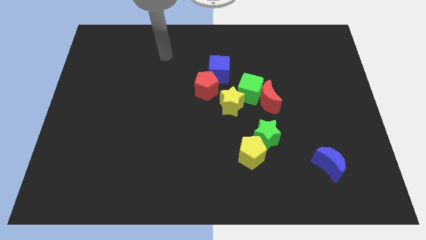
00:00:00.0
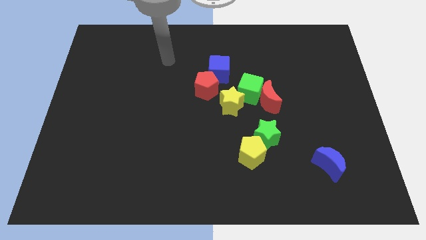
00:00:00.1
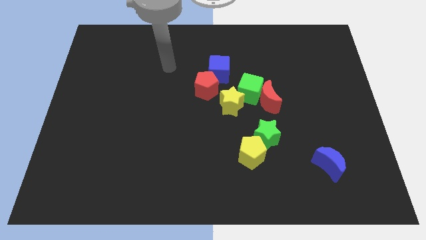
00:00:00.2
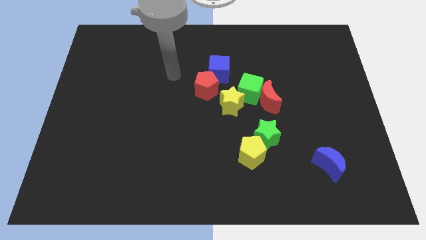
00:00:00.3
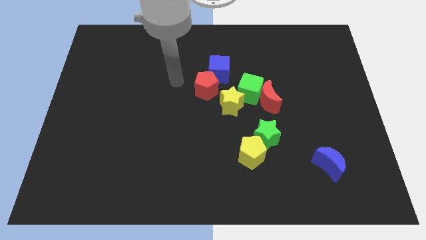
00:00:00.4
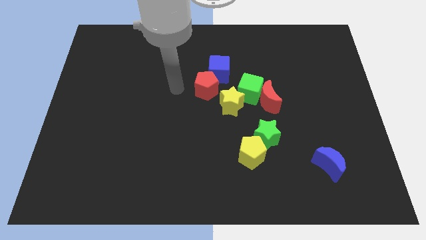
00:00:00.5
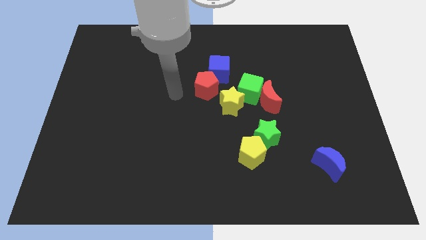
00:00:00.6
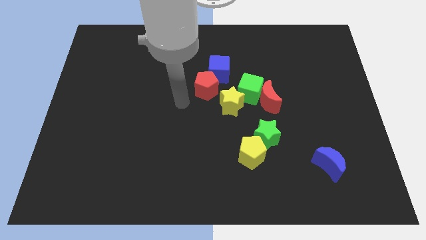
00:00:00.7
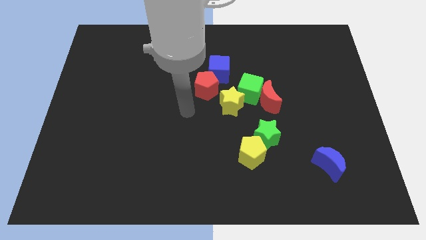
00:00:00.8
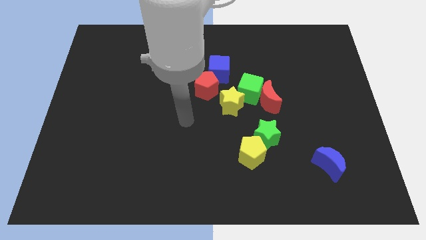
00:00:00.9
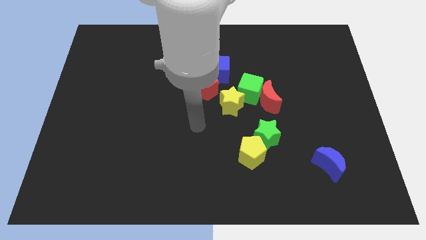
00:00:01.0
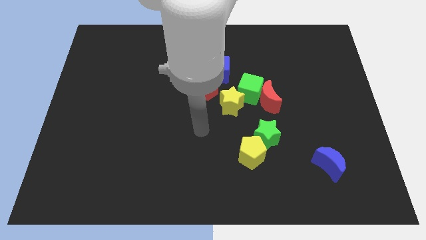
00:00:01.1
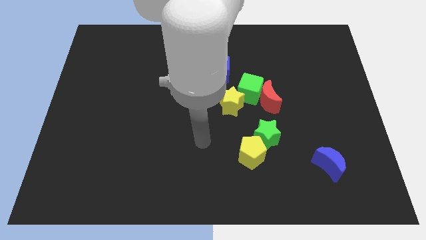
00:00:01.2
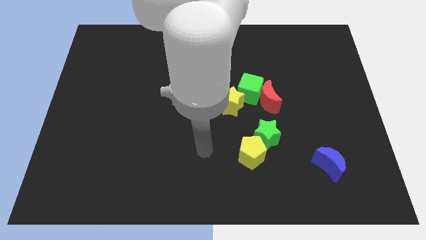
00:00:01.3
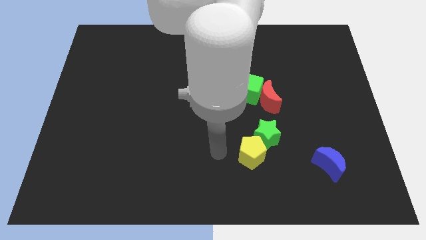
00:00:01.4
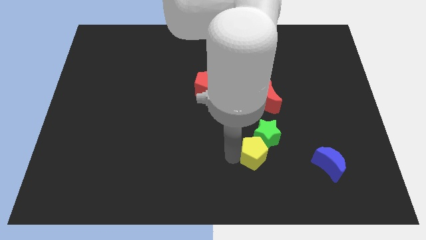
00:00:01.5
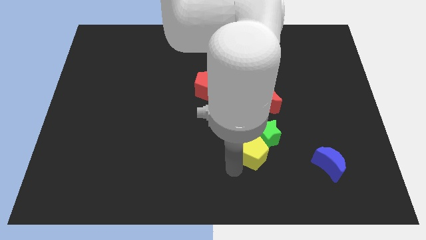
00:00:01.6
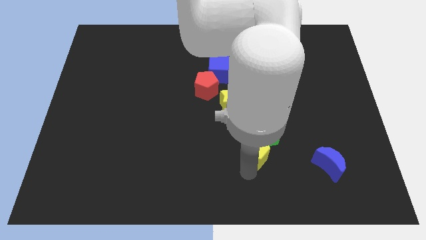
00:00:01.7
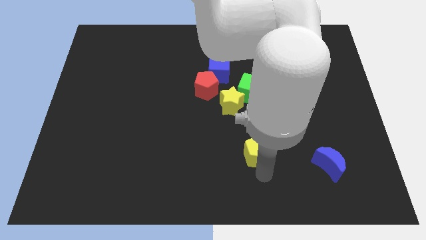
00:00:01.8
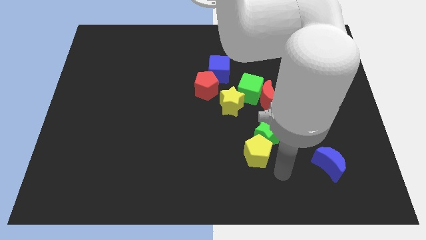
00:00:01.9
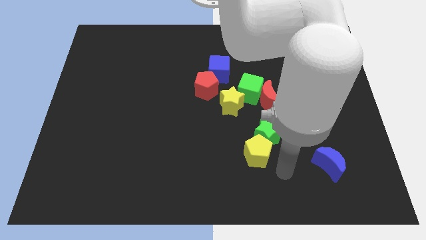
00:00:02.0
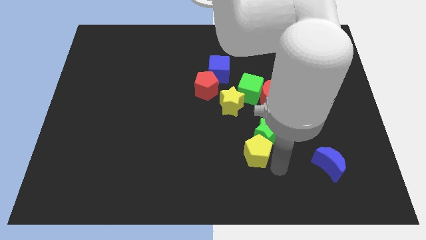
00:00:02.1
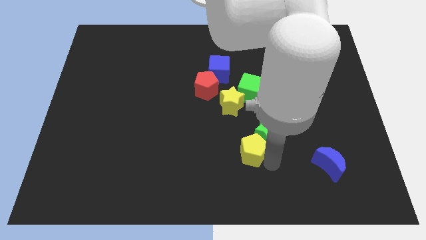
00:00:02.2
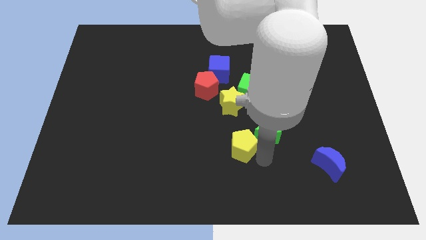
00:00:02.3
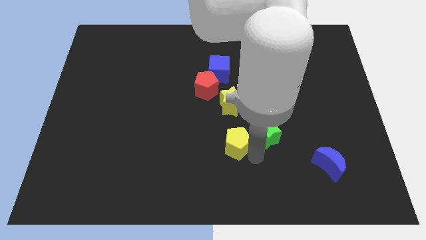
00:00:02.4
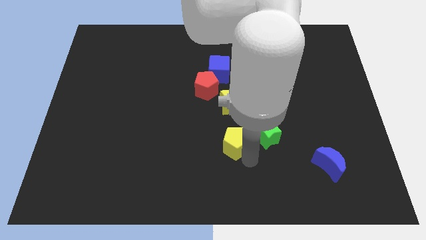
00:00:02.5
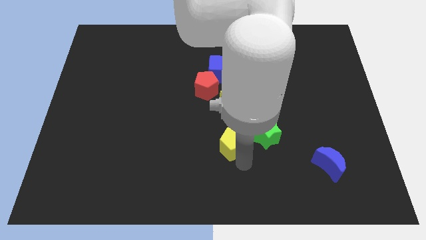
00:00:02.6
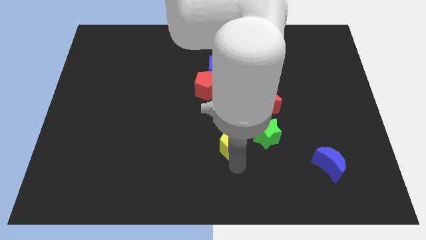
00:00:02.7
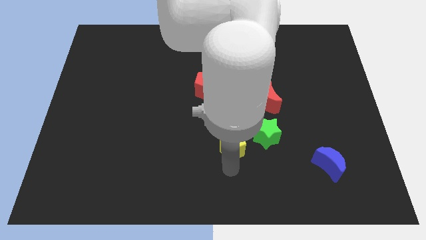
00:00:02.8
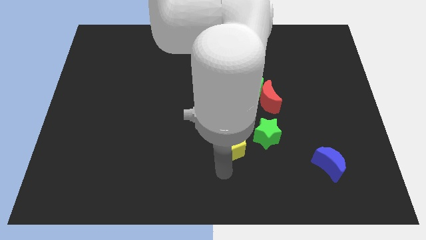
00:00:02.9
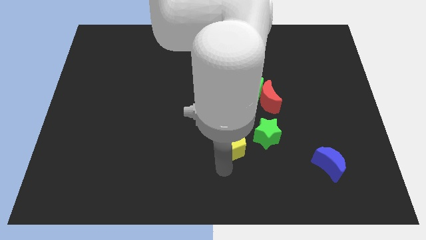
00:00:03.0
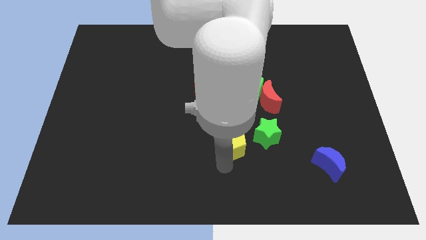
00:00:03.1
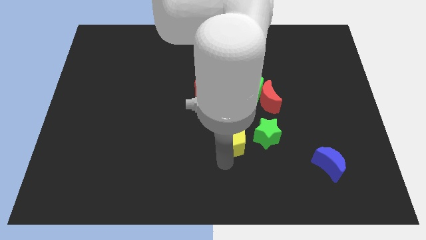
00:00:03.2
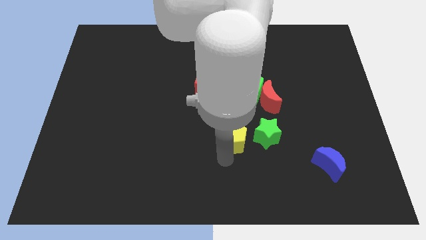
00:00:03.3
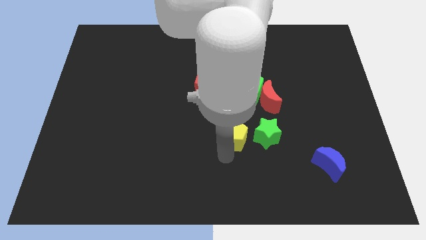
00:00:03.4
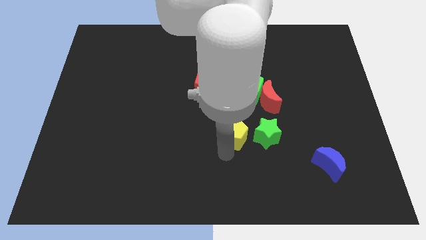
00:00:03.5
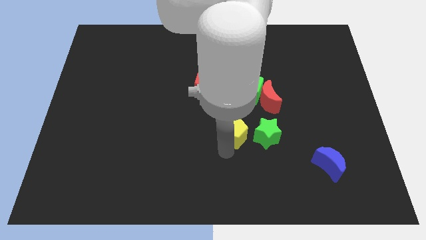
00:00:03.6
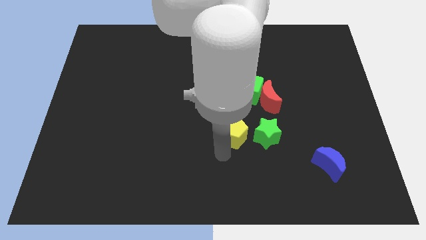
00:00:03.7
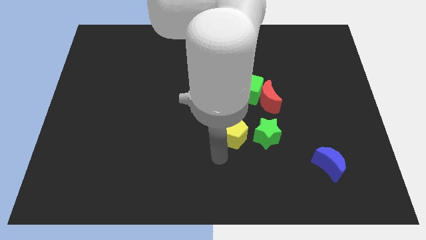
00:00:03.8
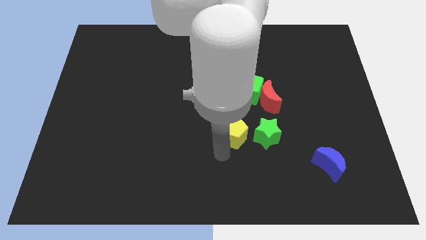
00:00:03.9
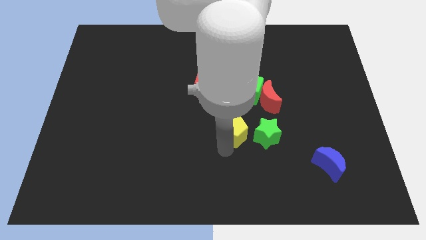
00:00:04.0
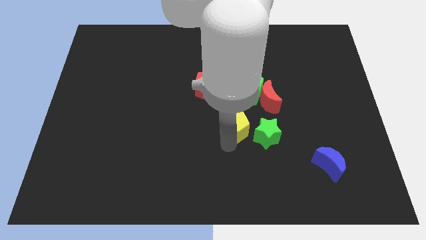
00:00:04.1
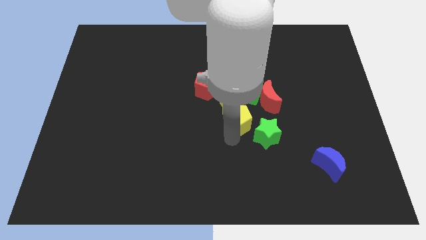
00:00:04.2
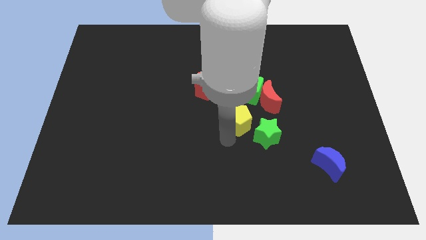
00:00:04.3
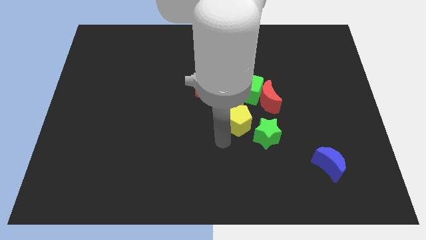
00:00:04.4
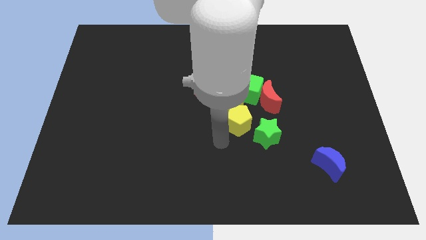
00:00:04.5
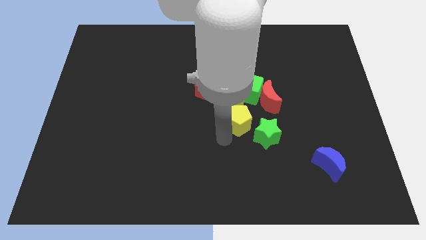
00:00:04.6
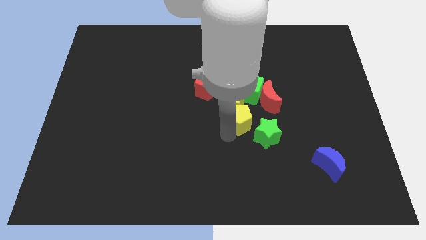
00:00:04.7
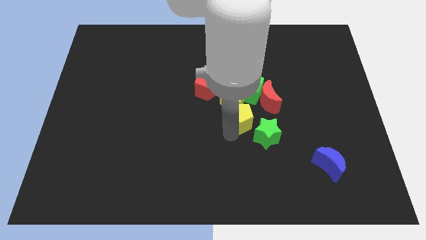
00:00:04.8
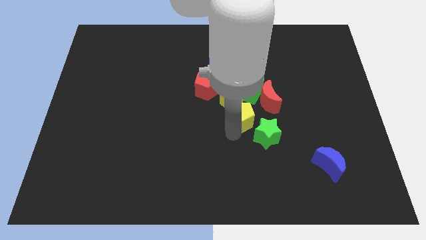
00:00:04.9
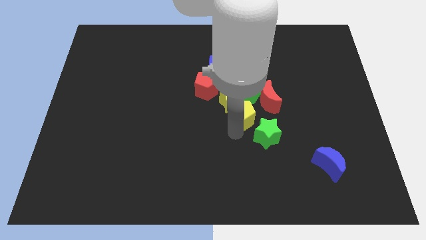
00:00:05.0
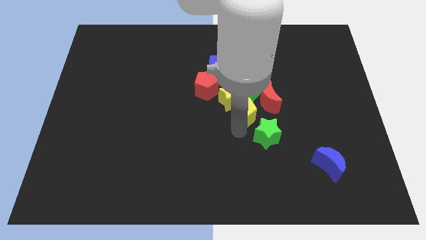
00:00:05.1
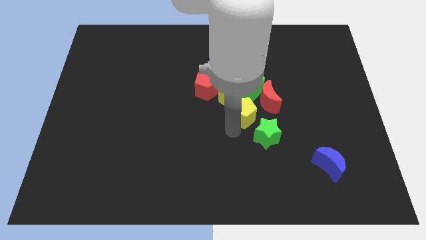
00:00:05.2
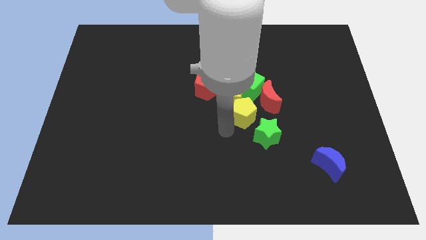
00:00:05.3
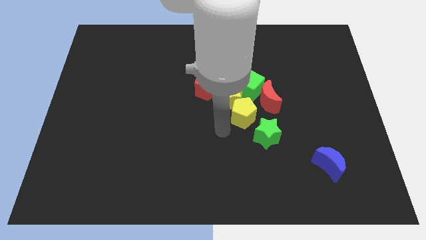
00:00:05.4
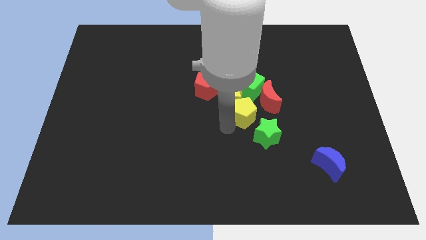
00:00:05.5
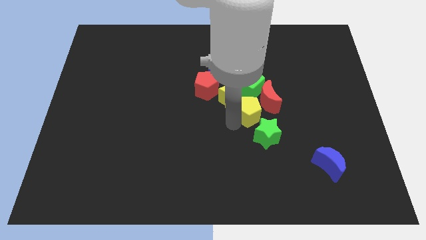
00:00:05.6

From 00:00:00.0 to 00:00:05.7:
slide the yellow pentagon to the red moon

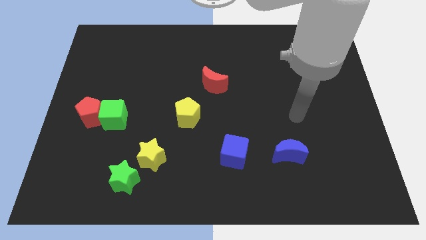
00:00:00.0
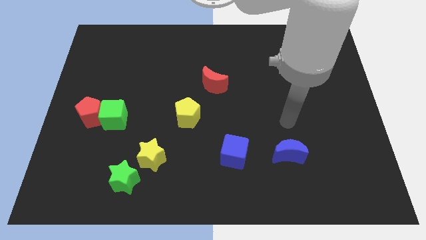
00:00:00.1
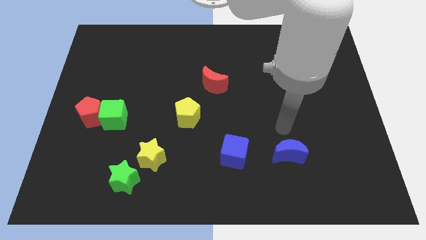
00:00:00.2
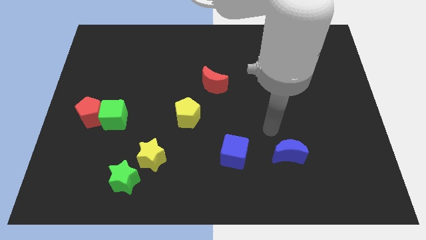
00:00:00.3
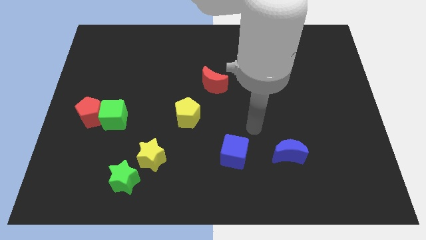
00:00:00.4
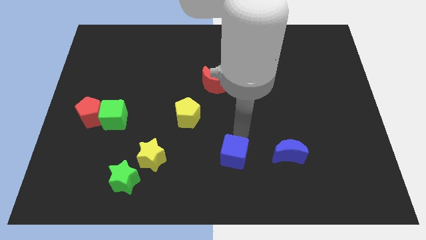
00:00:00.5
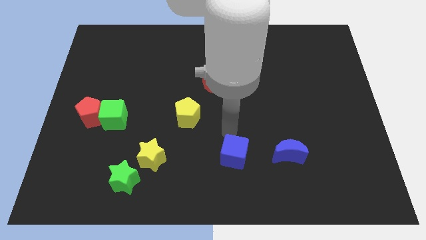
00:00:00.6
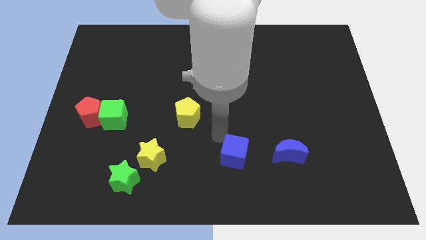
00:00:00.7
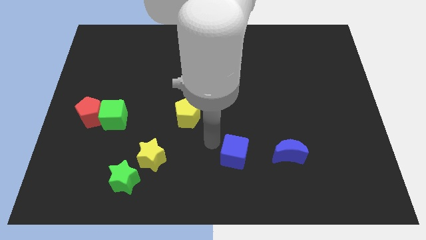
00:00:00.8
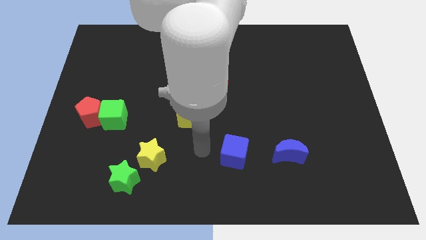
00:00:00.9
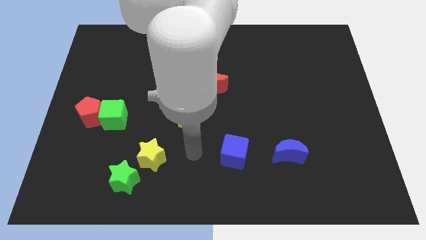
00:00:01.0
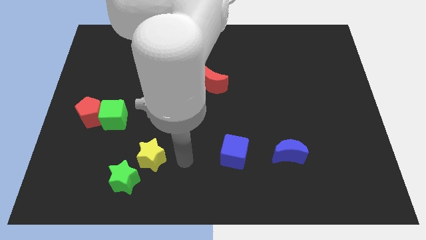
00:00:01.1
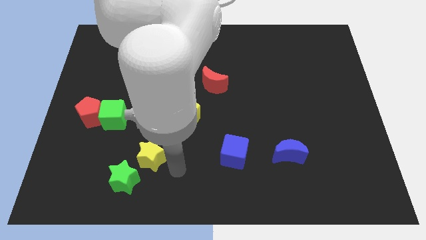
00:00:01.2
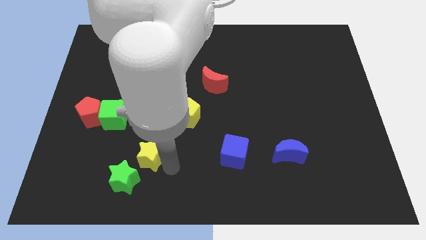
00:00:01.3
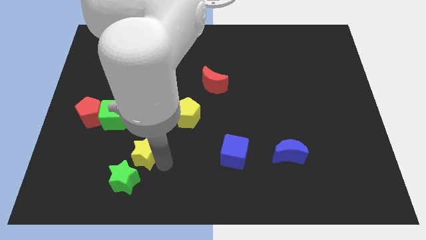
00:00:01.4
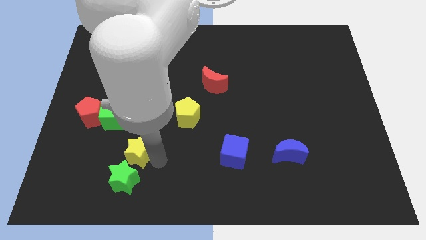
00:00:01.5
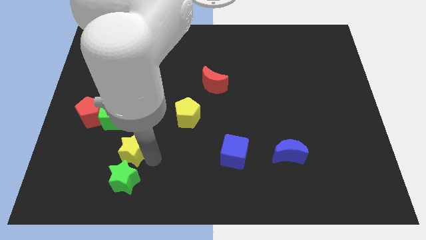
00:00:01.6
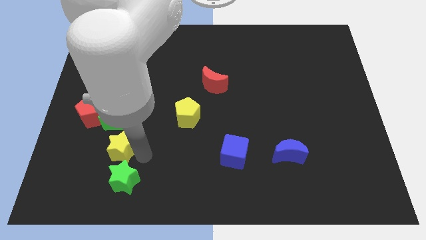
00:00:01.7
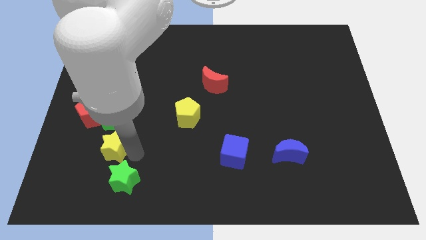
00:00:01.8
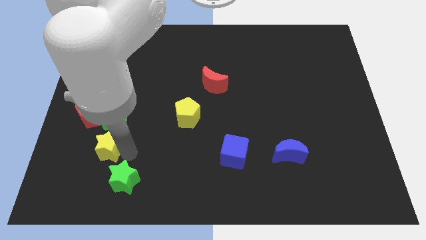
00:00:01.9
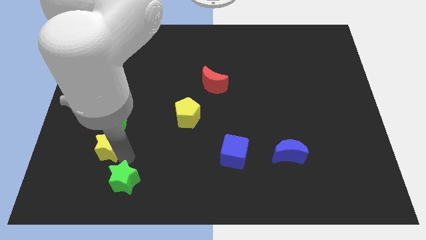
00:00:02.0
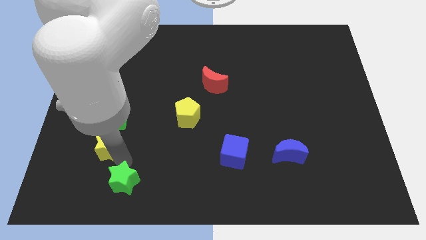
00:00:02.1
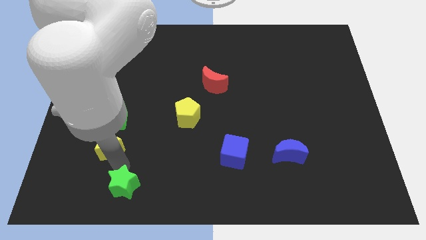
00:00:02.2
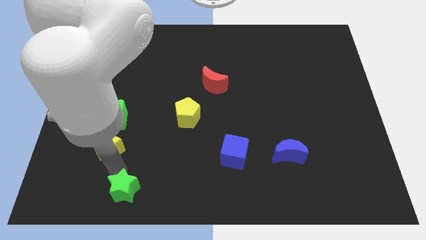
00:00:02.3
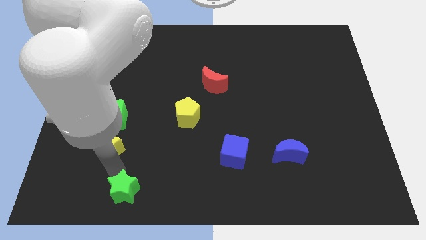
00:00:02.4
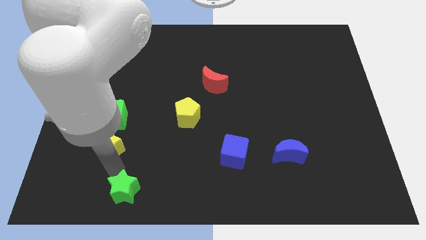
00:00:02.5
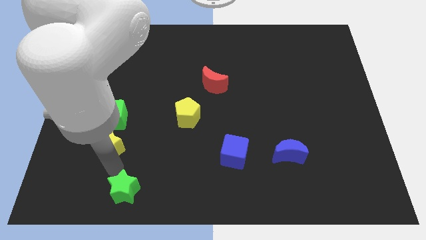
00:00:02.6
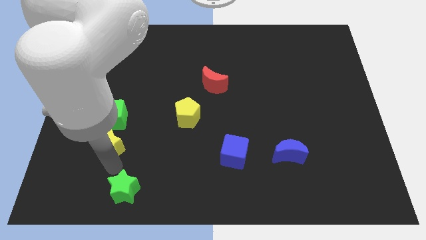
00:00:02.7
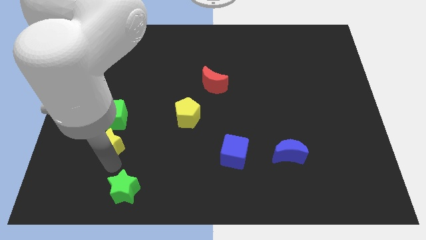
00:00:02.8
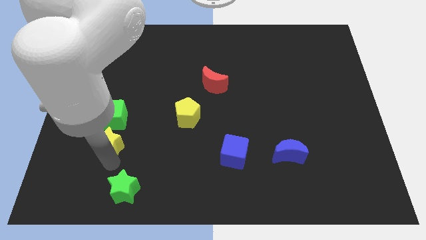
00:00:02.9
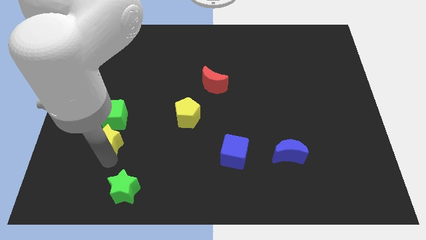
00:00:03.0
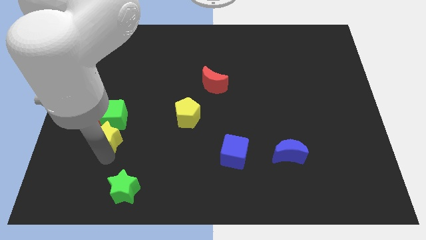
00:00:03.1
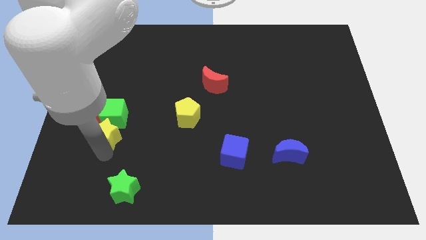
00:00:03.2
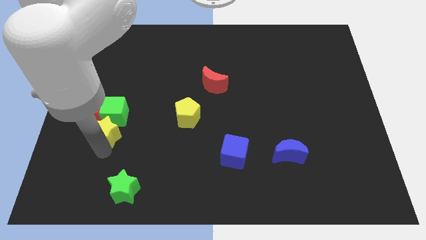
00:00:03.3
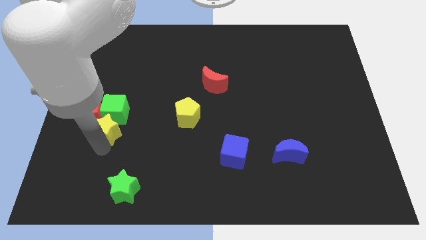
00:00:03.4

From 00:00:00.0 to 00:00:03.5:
put the yellow star close to the red pentagon
